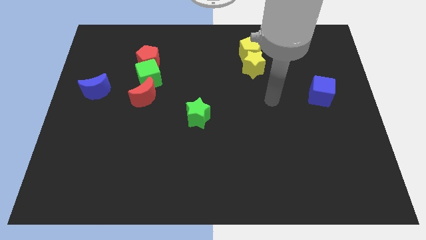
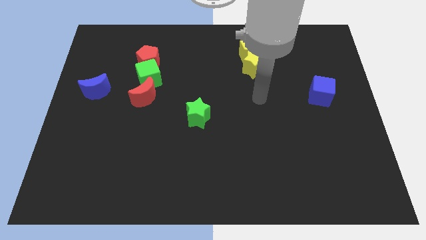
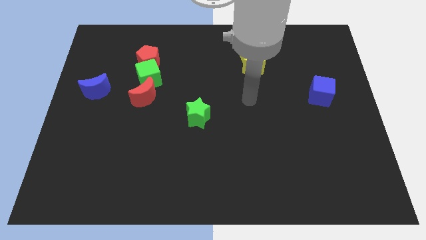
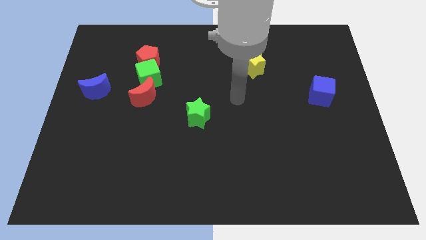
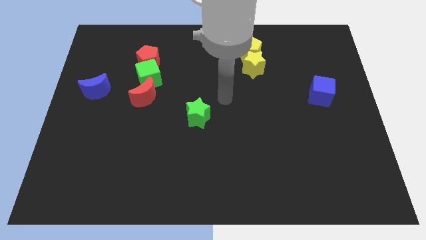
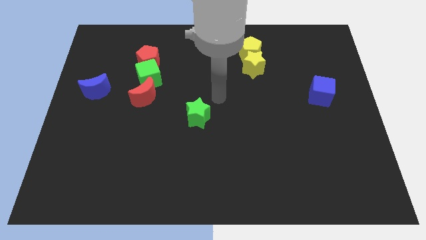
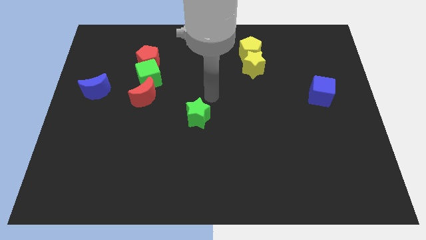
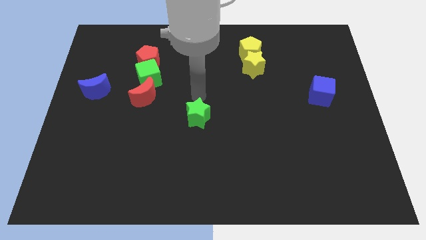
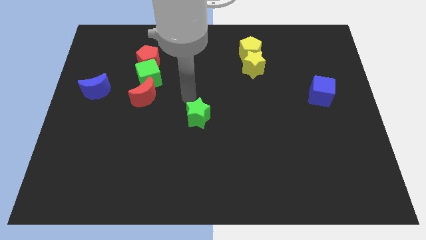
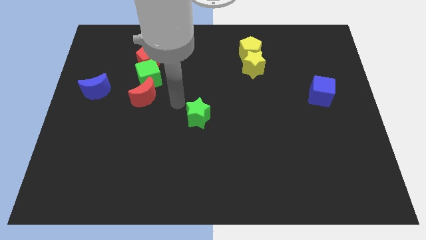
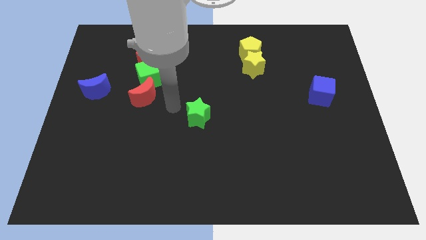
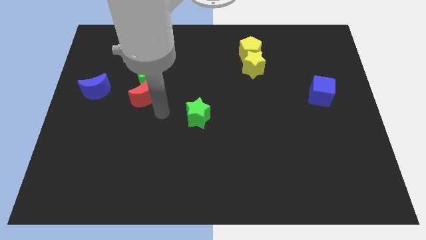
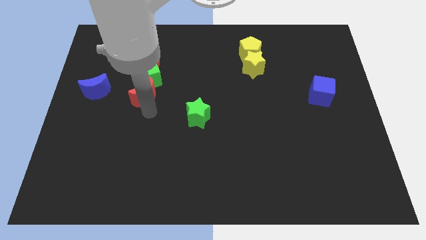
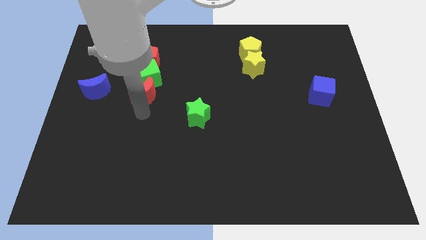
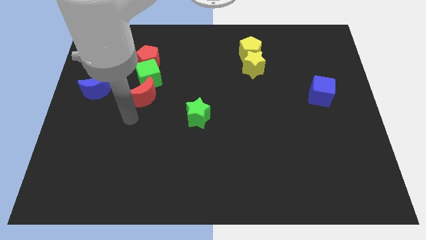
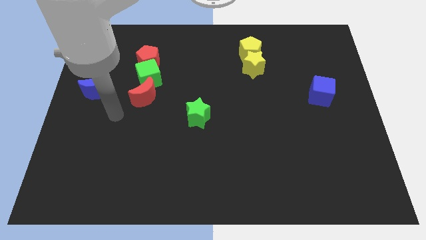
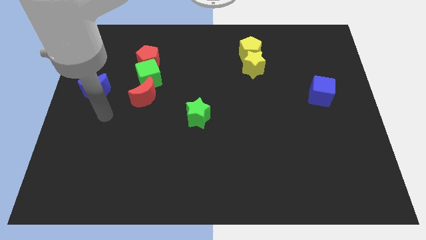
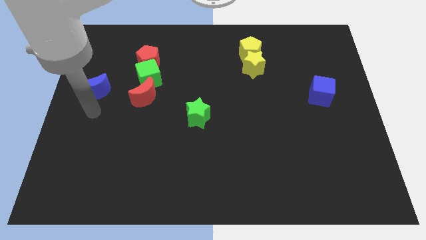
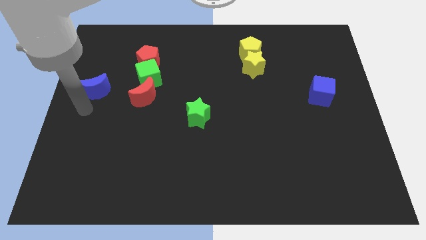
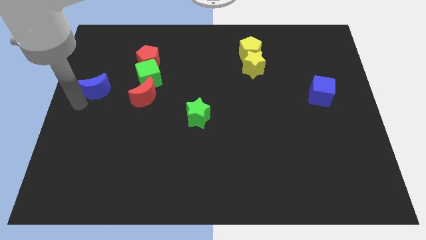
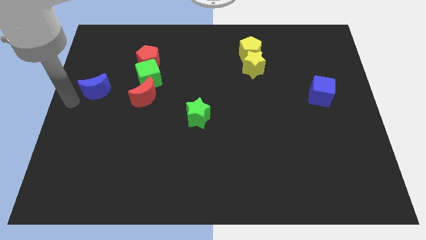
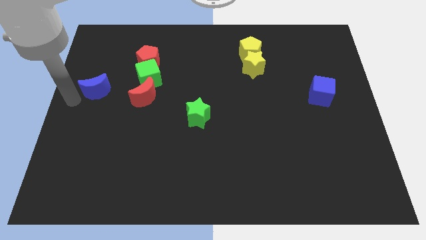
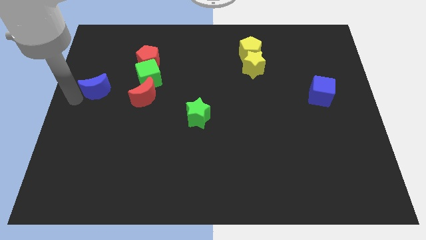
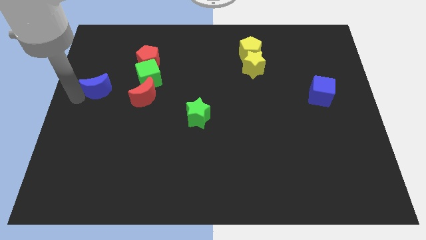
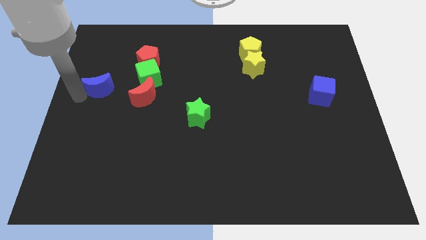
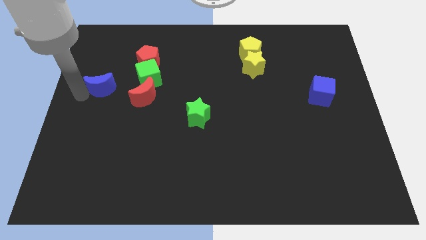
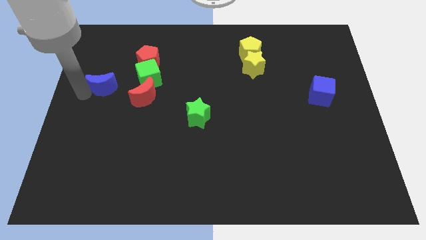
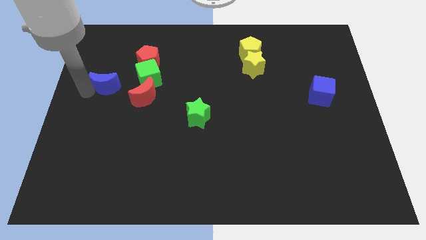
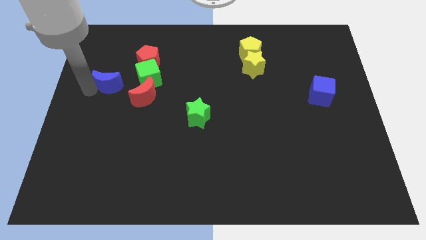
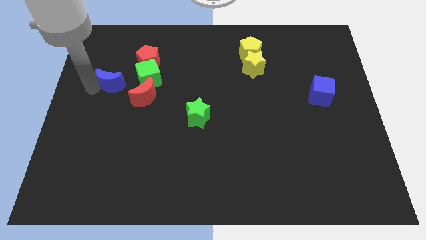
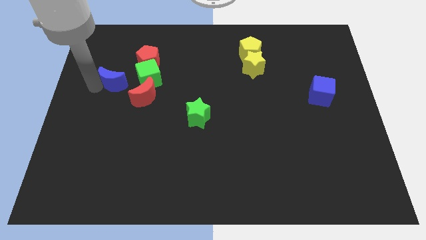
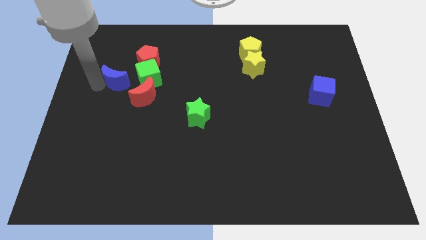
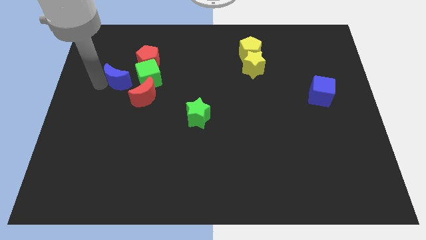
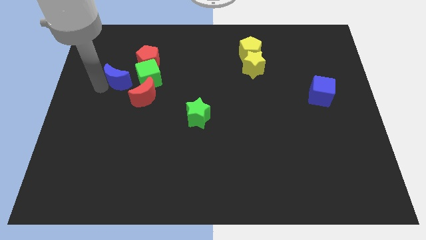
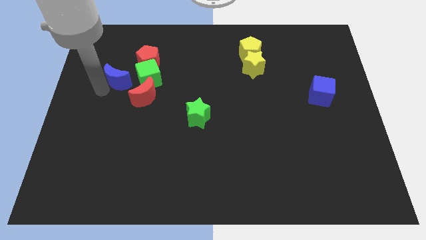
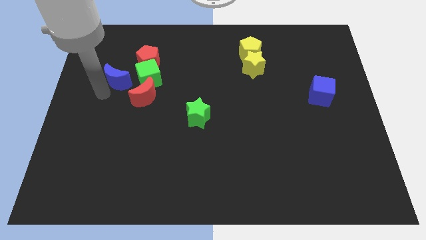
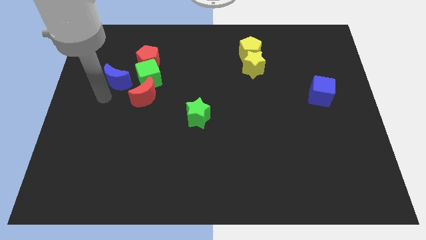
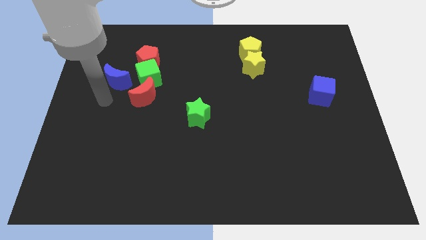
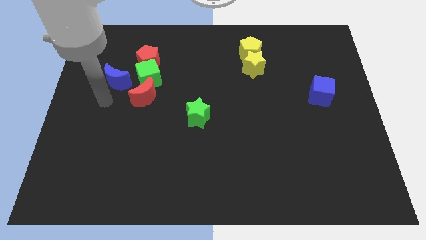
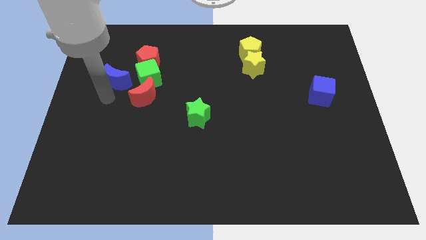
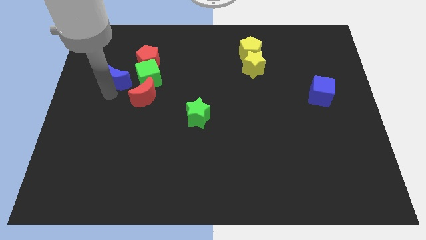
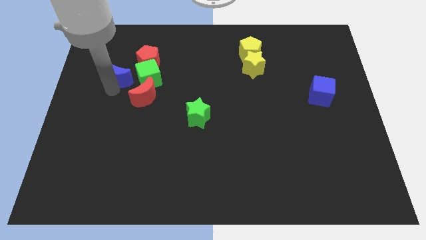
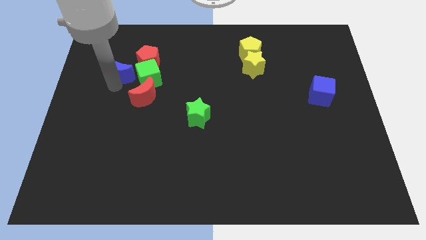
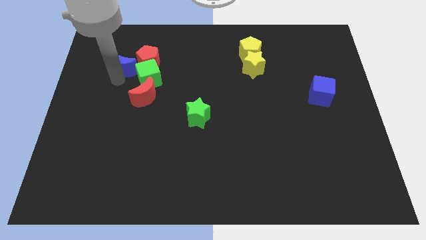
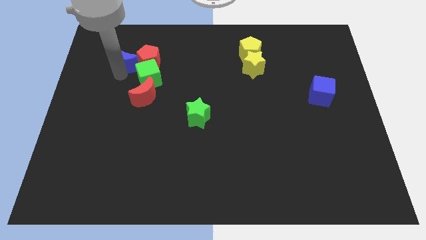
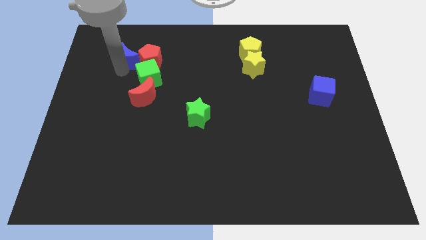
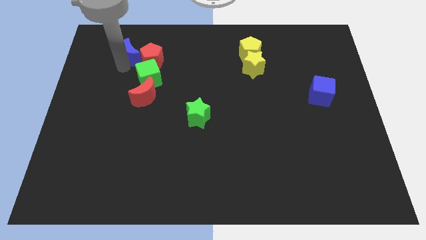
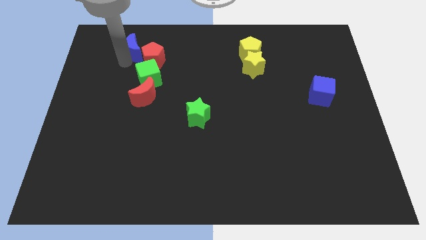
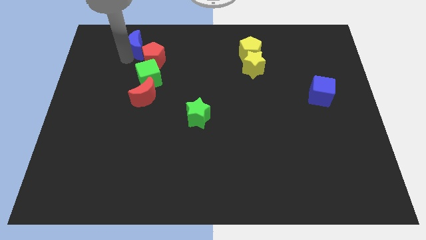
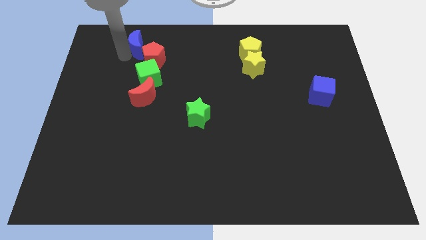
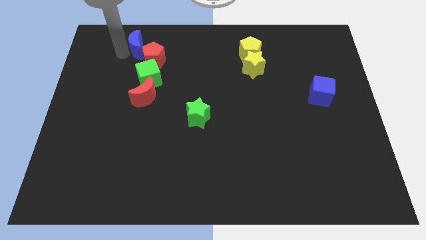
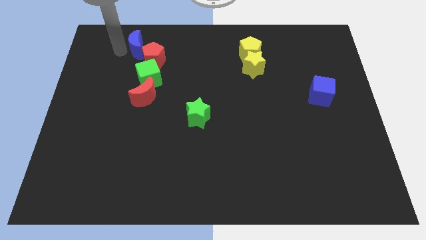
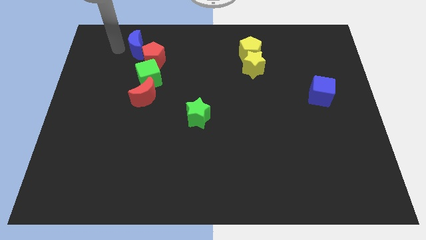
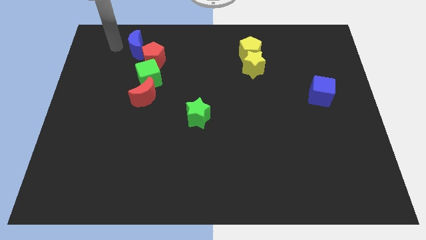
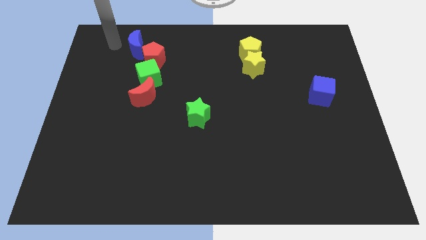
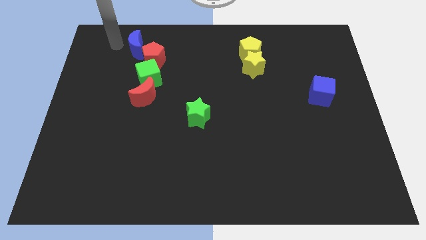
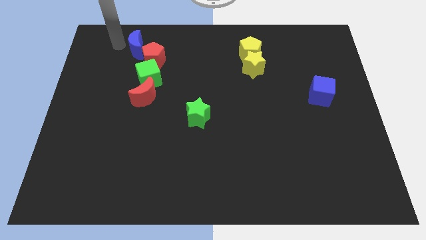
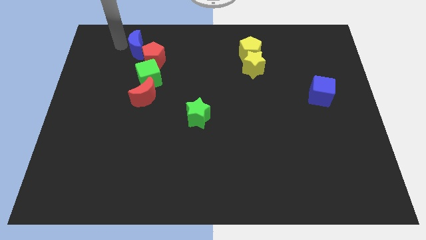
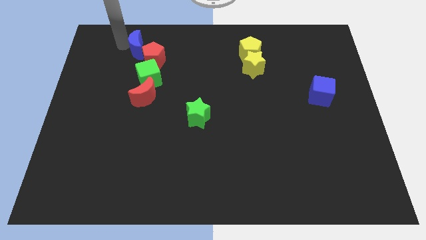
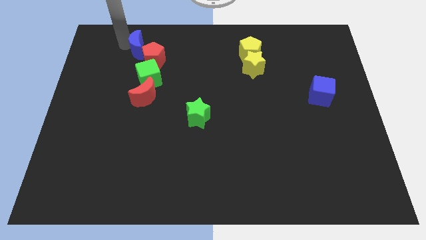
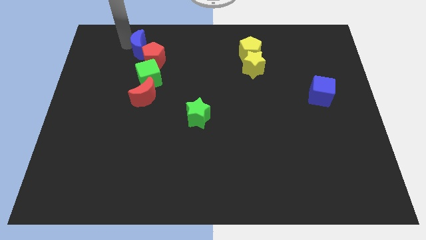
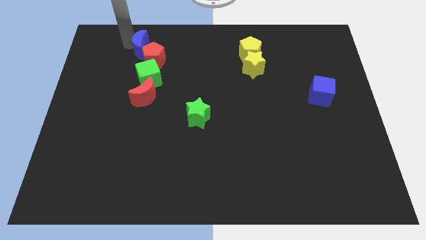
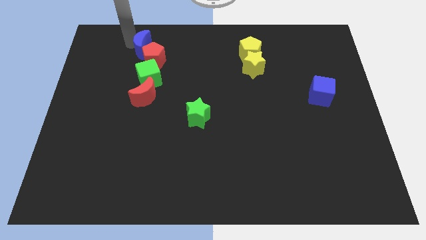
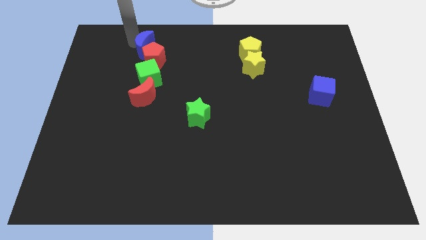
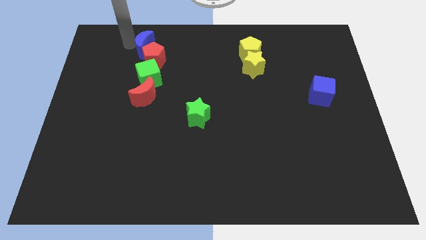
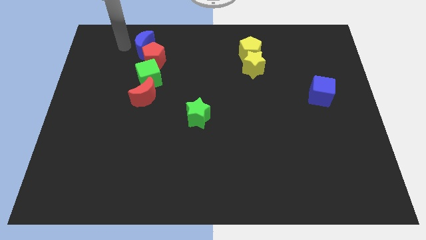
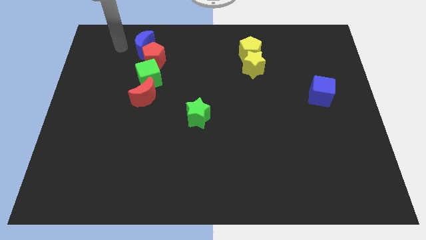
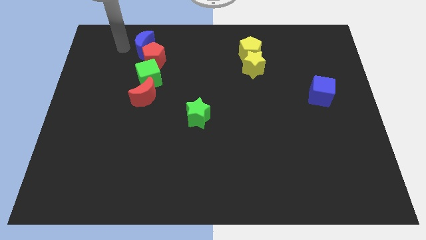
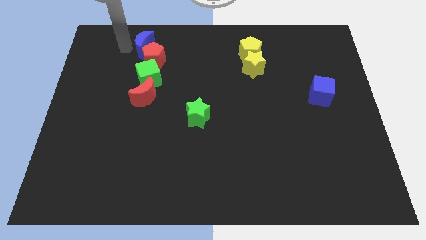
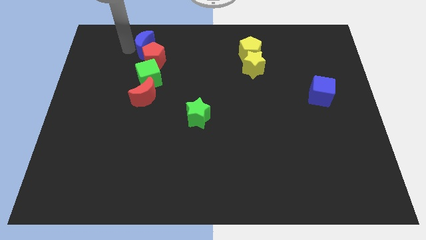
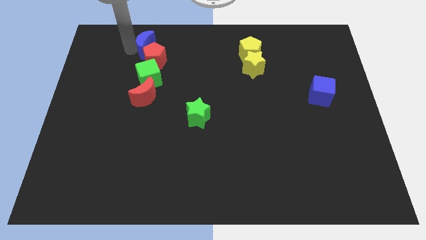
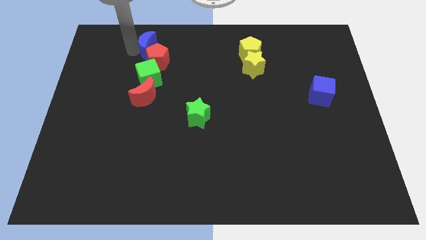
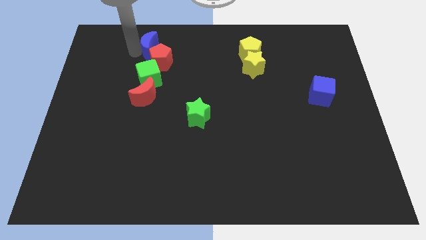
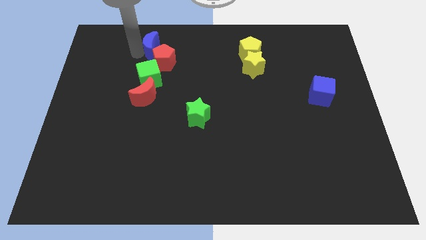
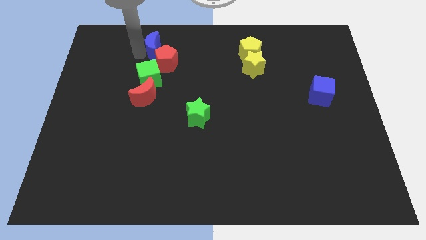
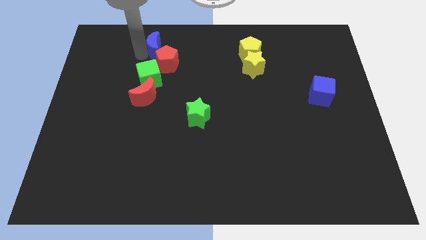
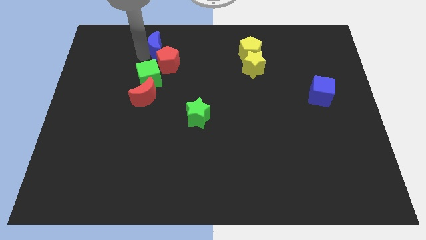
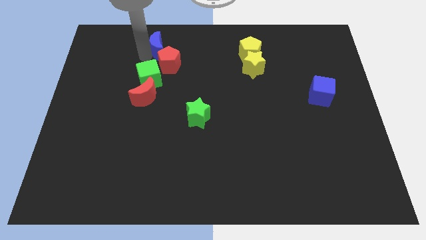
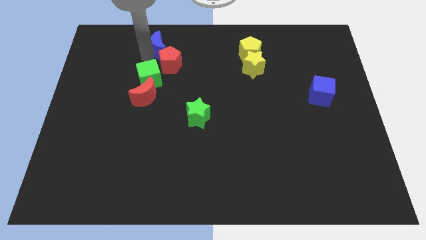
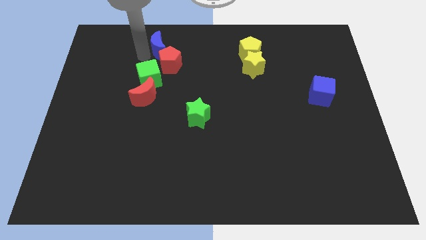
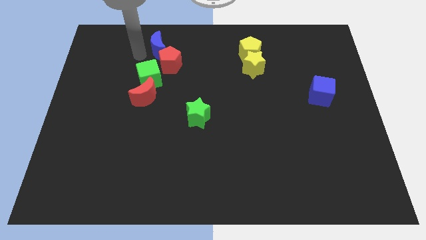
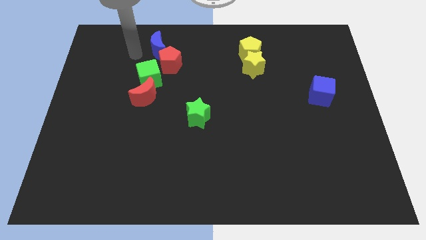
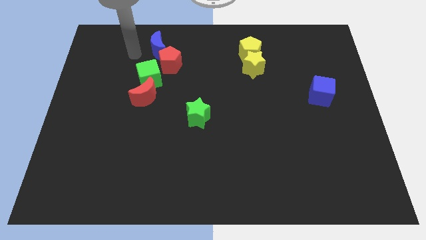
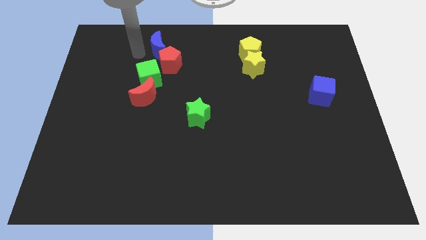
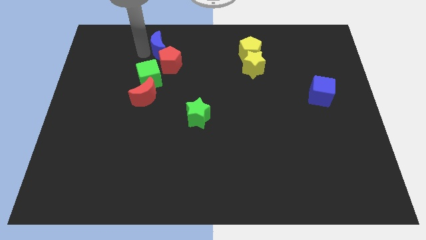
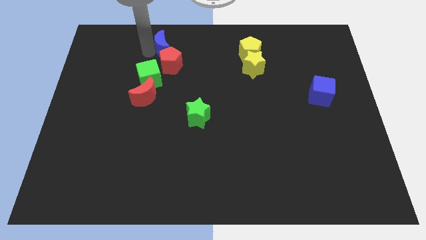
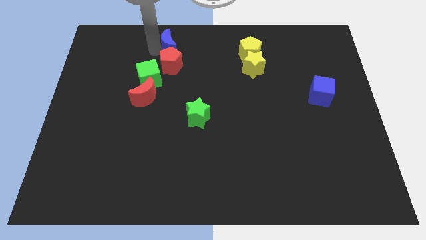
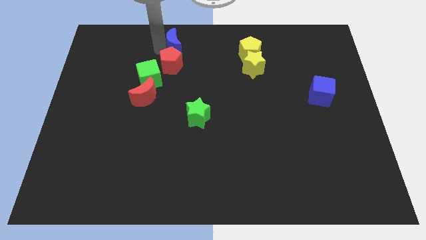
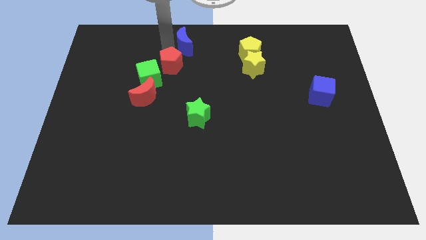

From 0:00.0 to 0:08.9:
move the blue moon to the top side
